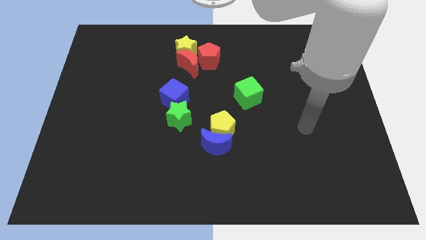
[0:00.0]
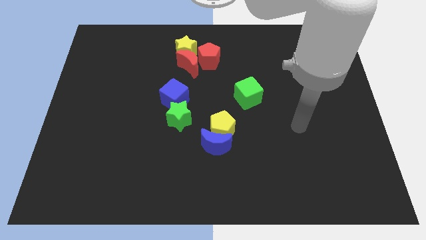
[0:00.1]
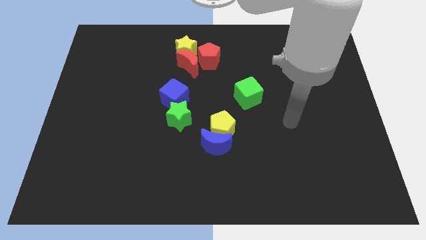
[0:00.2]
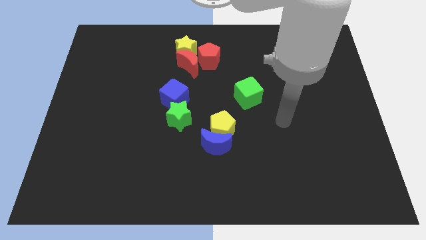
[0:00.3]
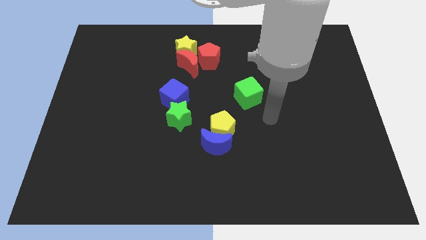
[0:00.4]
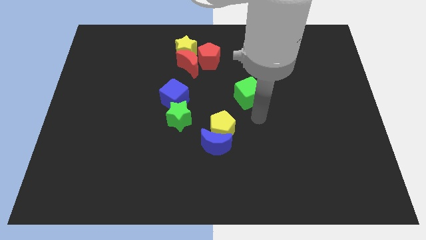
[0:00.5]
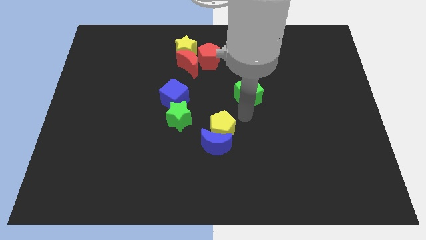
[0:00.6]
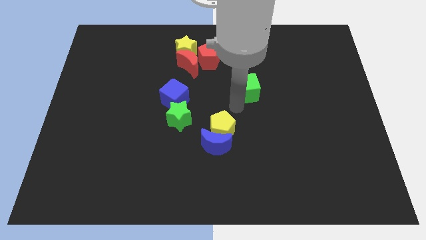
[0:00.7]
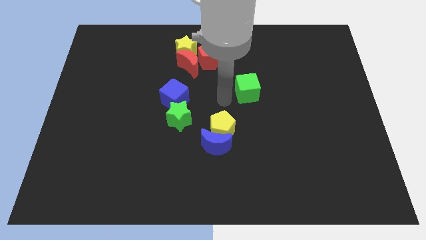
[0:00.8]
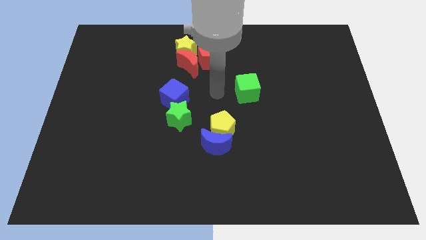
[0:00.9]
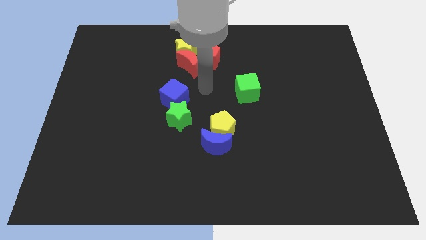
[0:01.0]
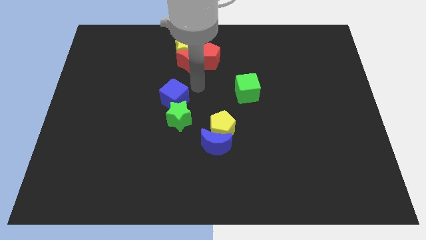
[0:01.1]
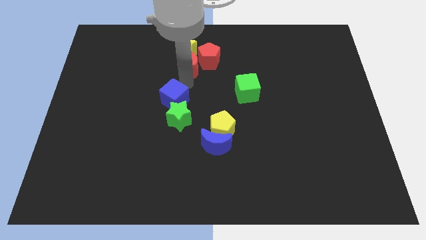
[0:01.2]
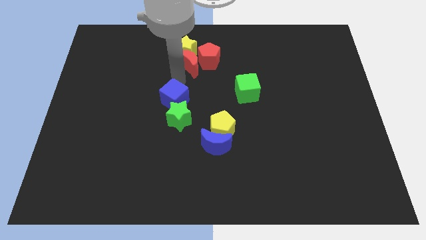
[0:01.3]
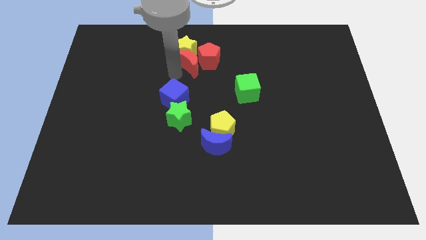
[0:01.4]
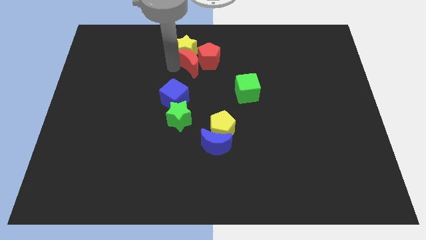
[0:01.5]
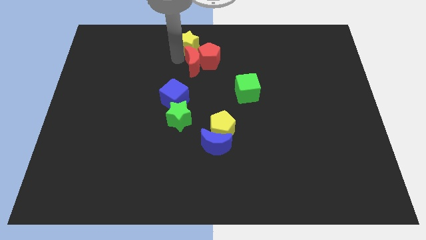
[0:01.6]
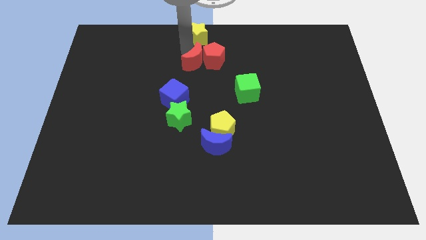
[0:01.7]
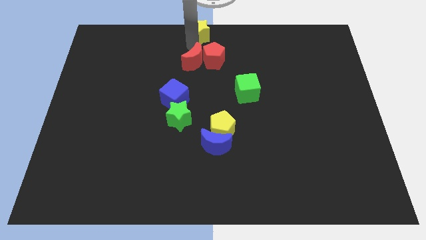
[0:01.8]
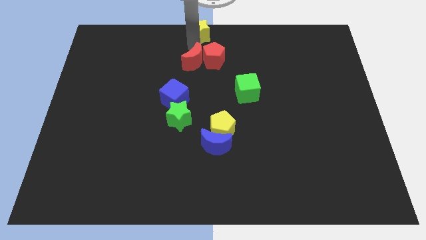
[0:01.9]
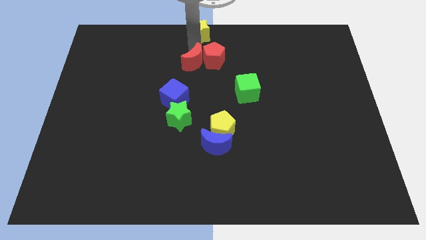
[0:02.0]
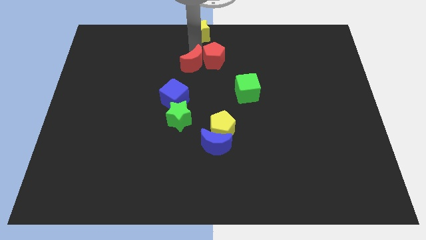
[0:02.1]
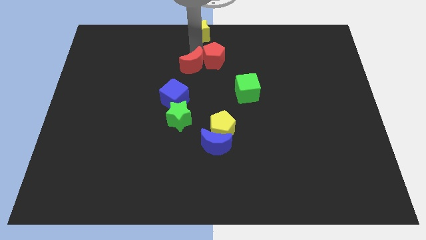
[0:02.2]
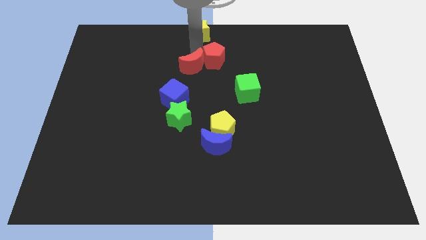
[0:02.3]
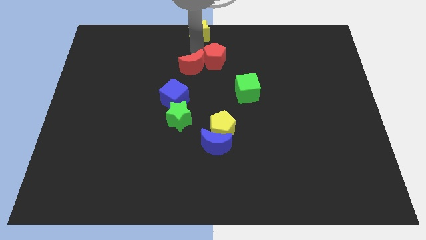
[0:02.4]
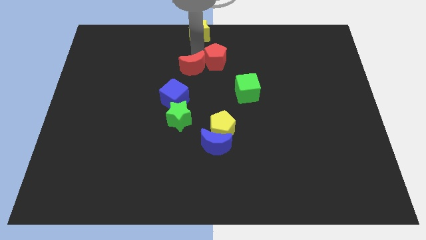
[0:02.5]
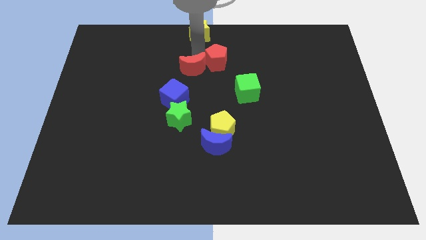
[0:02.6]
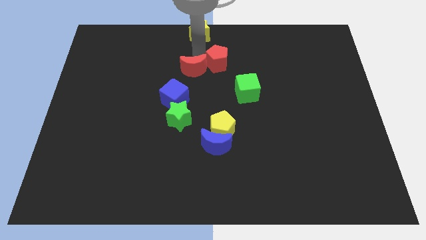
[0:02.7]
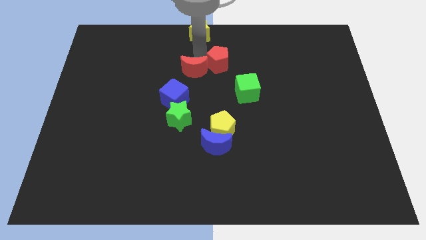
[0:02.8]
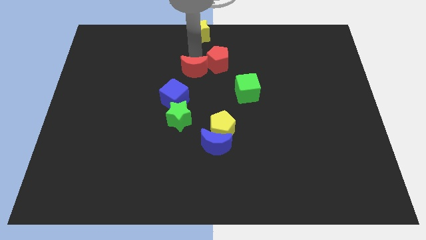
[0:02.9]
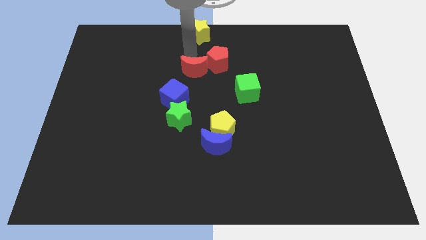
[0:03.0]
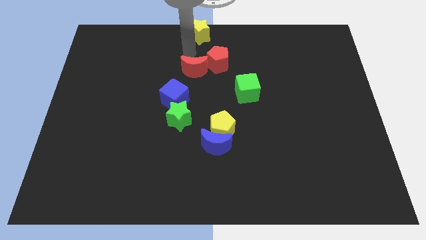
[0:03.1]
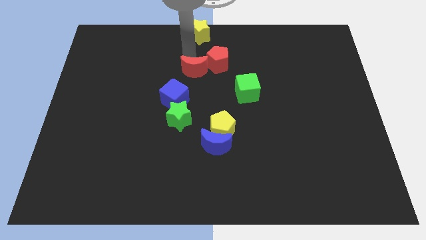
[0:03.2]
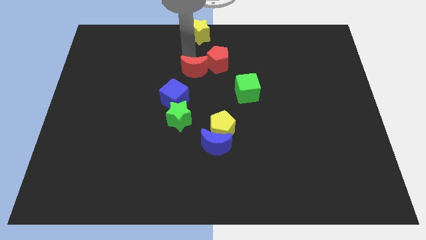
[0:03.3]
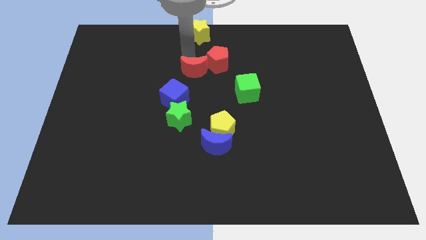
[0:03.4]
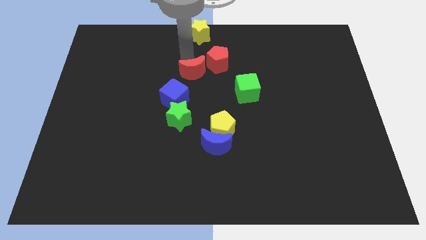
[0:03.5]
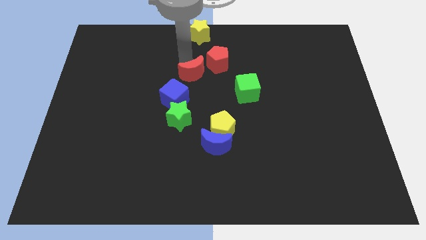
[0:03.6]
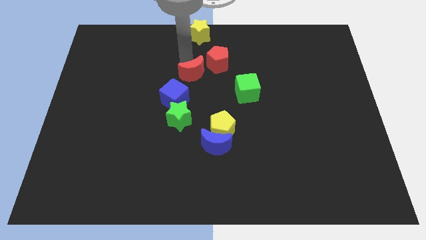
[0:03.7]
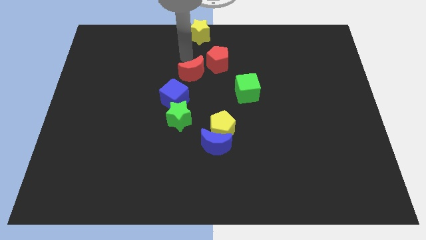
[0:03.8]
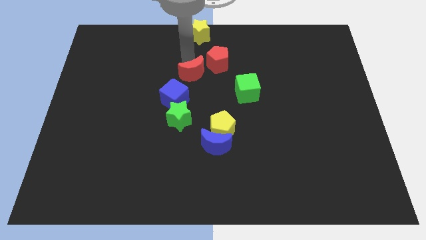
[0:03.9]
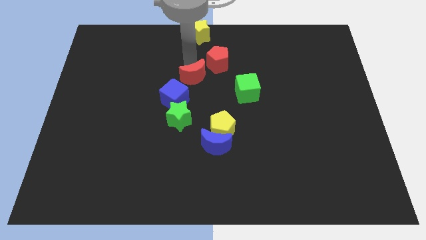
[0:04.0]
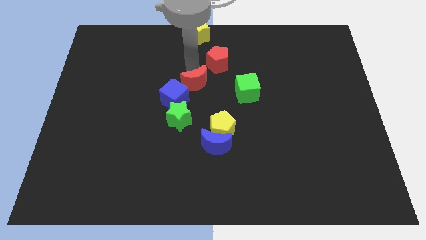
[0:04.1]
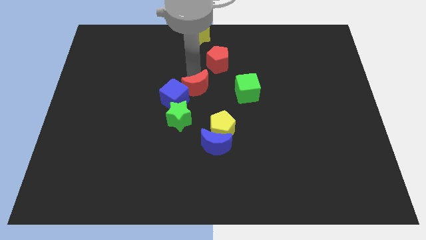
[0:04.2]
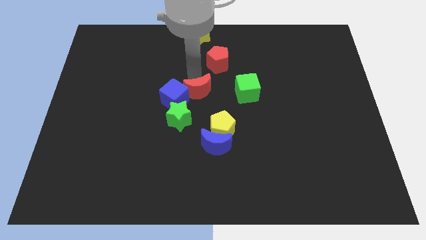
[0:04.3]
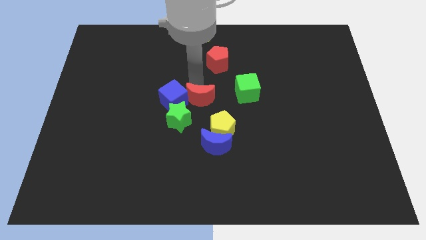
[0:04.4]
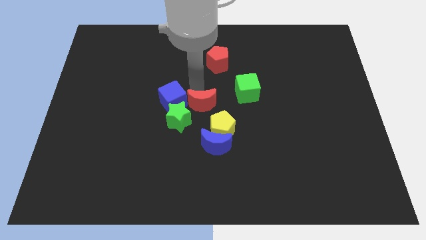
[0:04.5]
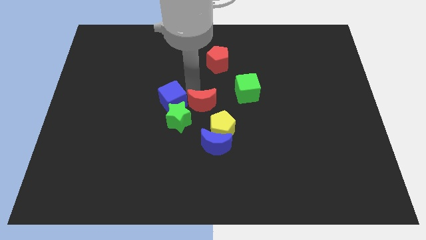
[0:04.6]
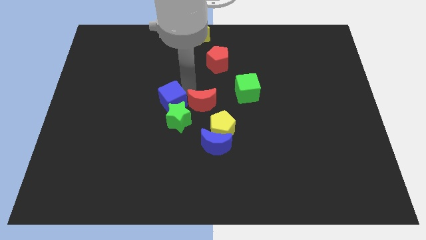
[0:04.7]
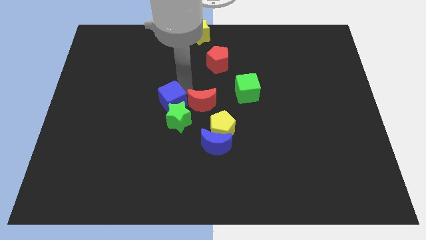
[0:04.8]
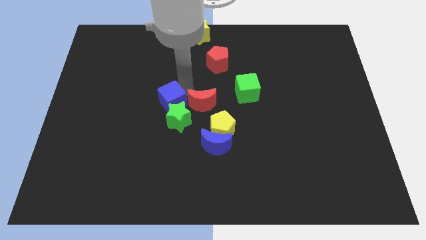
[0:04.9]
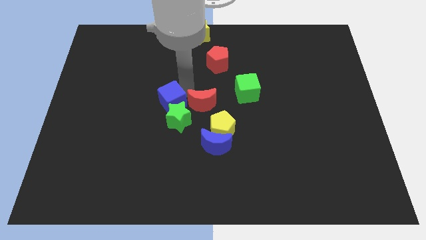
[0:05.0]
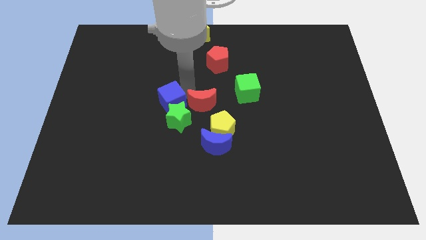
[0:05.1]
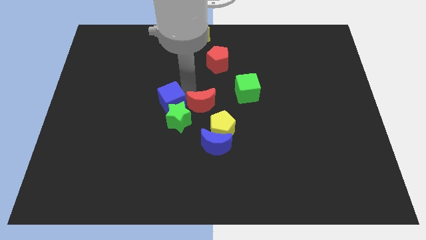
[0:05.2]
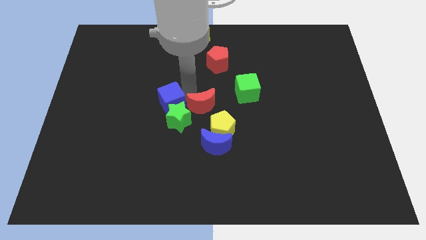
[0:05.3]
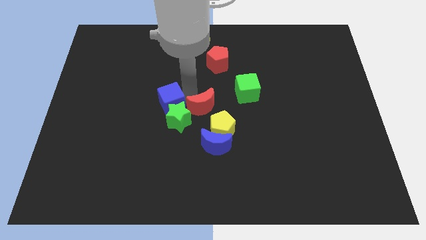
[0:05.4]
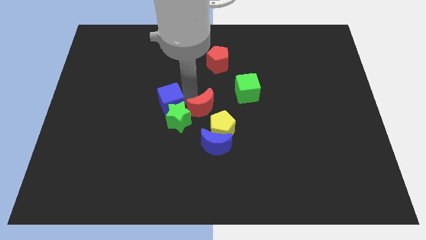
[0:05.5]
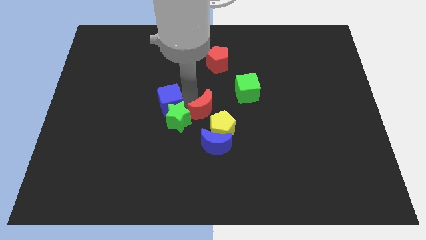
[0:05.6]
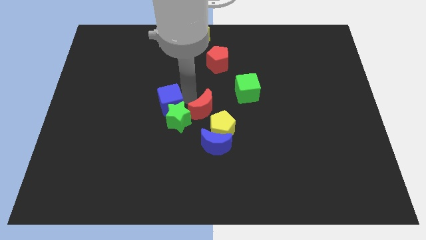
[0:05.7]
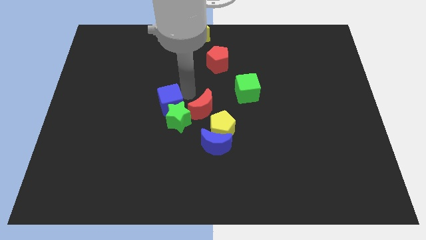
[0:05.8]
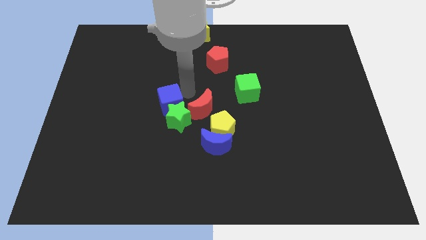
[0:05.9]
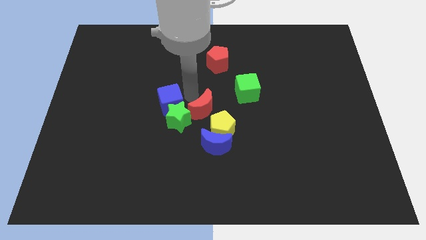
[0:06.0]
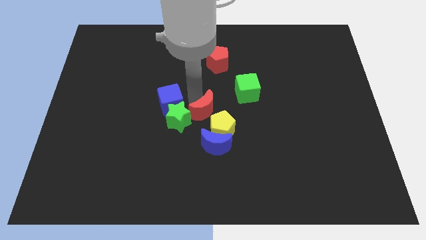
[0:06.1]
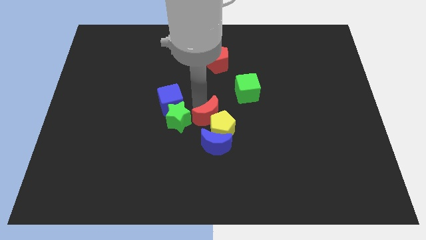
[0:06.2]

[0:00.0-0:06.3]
slide the red moon next to the yellow pentagon

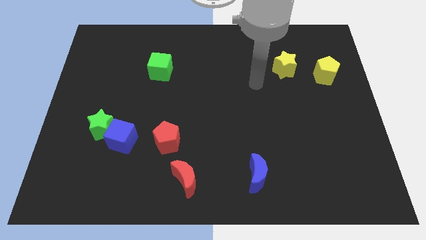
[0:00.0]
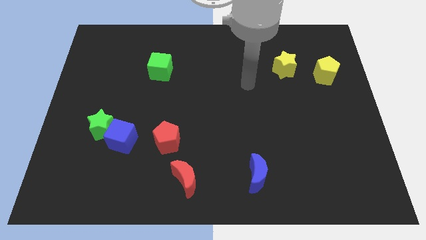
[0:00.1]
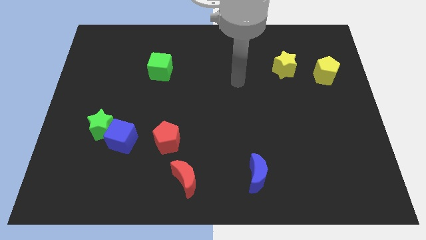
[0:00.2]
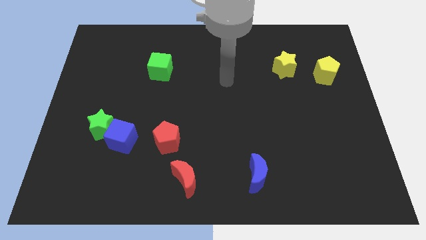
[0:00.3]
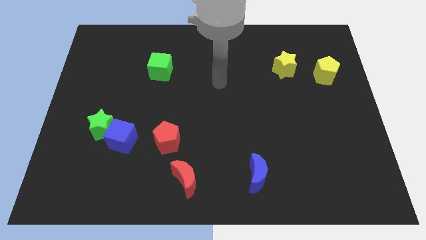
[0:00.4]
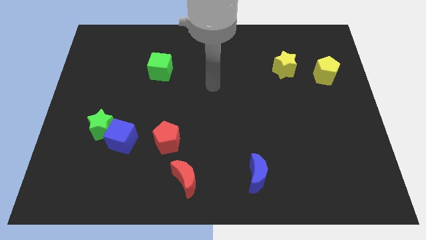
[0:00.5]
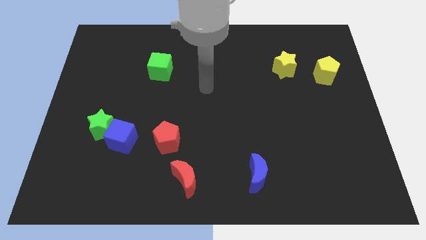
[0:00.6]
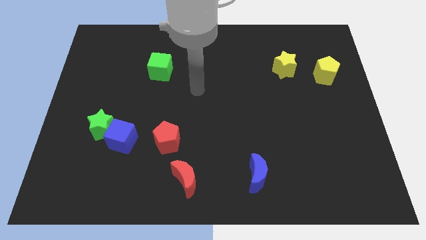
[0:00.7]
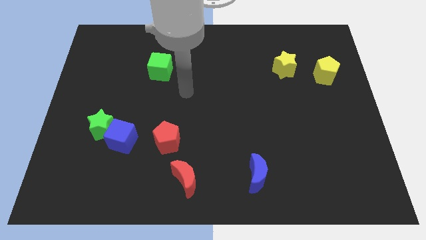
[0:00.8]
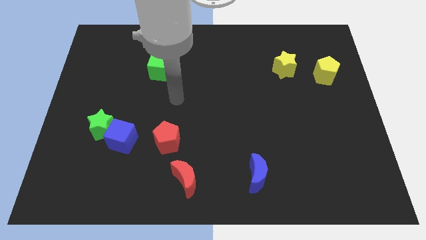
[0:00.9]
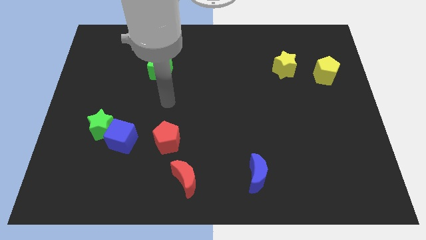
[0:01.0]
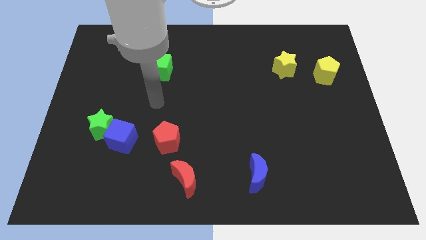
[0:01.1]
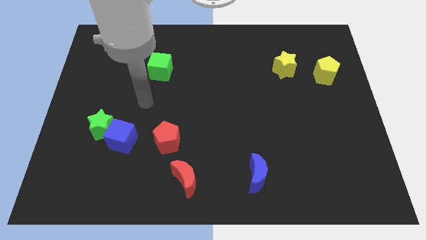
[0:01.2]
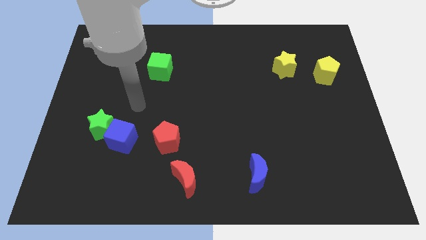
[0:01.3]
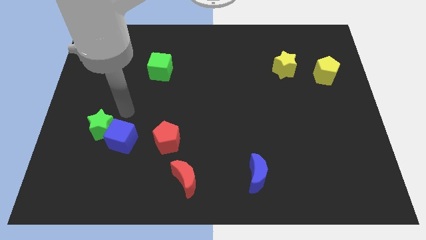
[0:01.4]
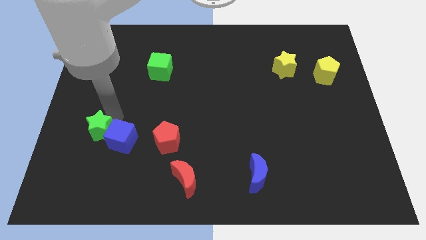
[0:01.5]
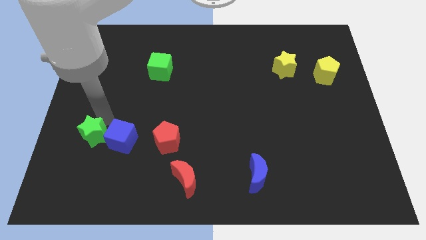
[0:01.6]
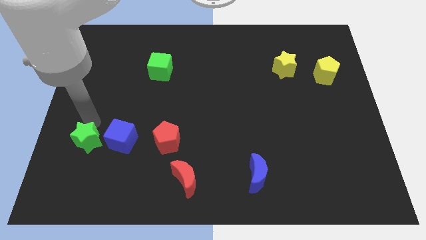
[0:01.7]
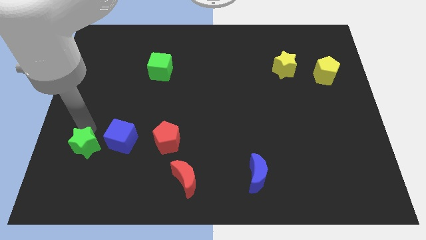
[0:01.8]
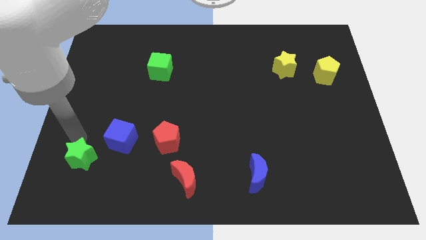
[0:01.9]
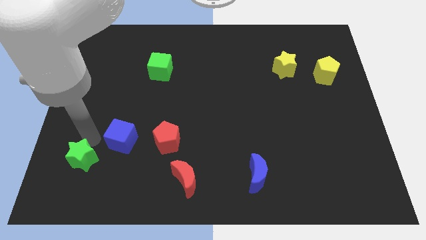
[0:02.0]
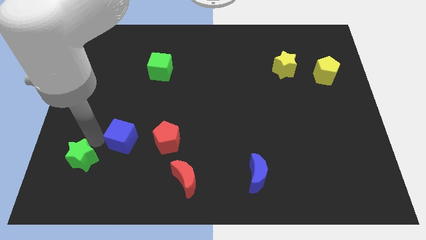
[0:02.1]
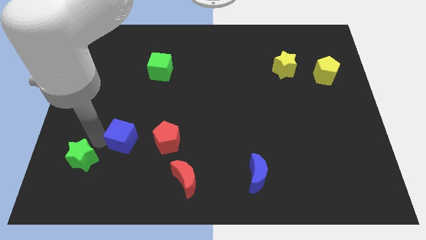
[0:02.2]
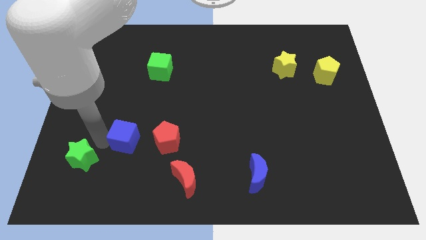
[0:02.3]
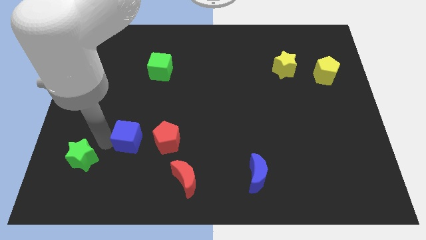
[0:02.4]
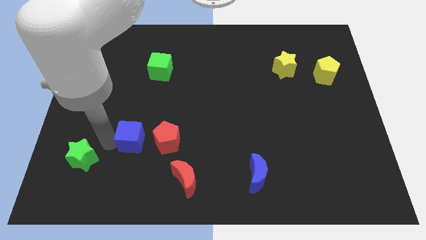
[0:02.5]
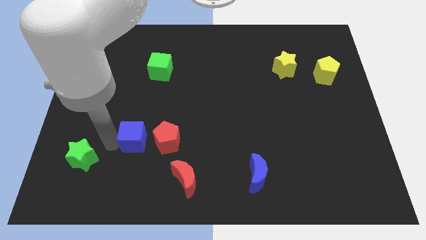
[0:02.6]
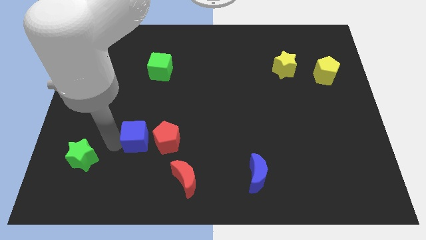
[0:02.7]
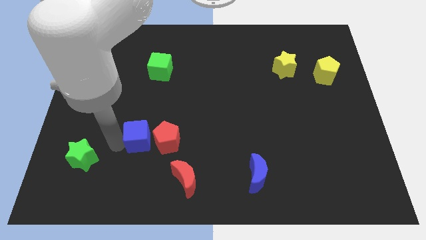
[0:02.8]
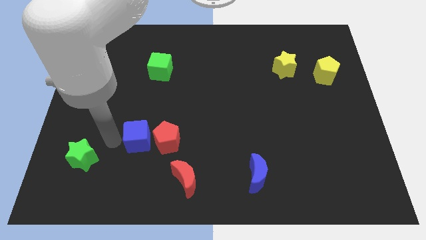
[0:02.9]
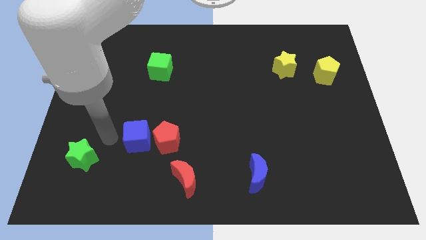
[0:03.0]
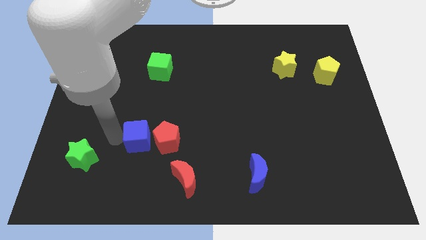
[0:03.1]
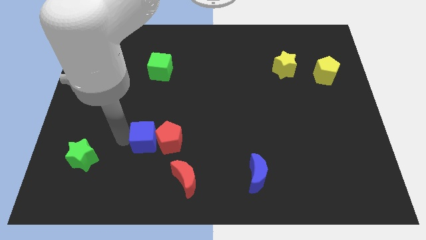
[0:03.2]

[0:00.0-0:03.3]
push the blue cube to the red pentagon
